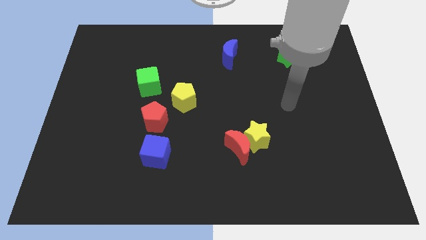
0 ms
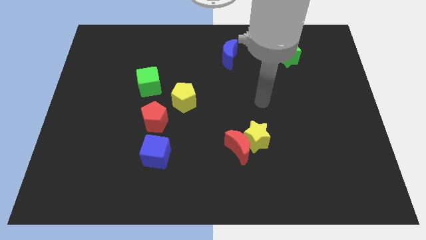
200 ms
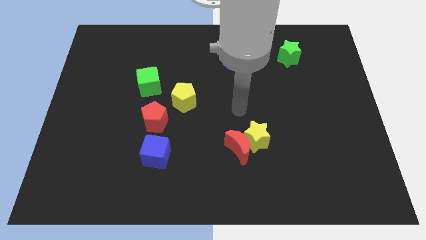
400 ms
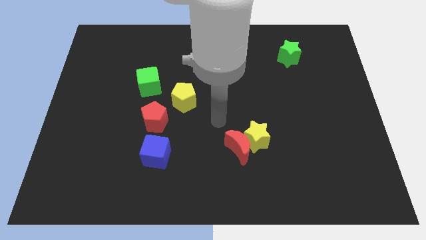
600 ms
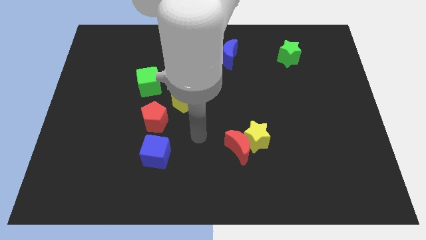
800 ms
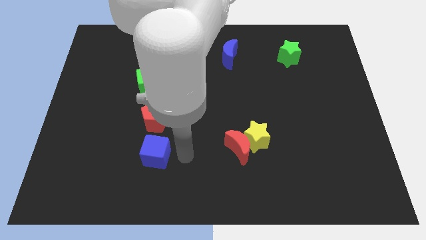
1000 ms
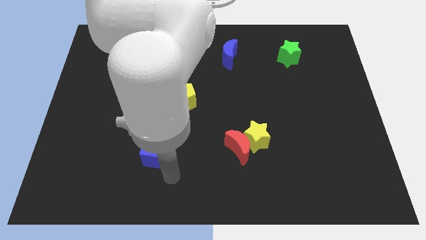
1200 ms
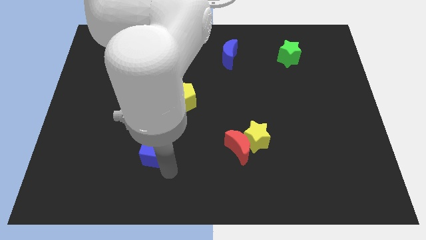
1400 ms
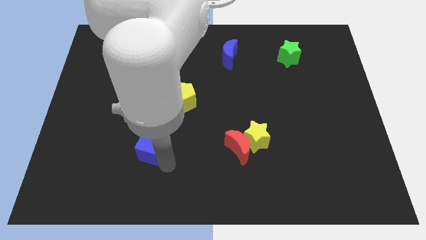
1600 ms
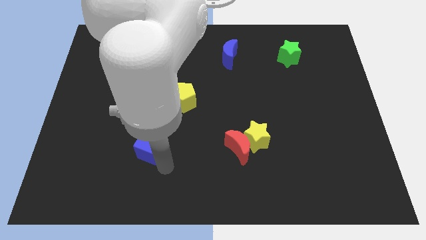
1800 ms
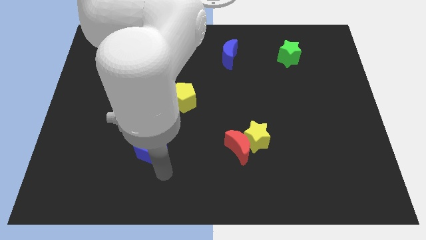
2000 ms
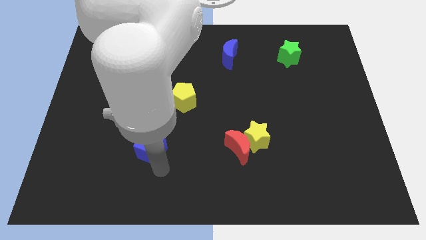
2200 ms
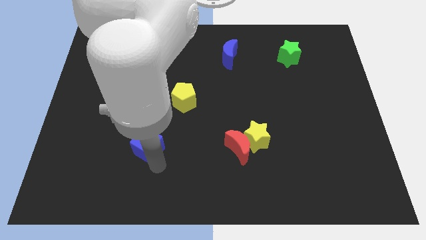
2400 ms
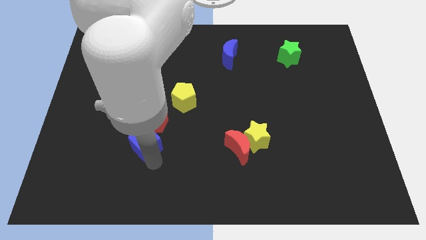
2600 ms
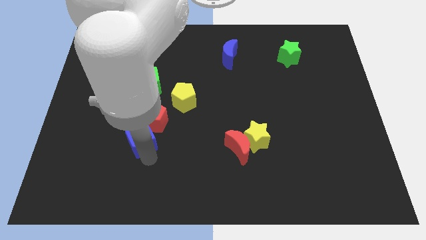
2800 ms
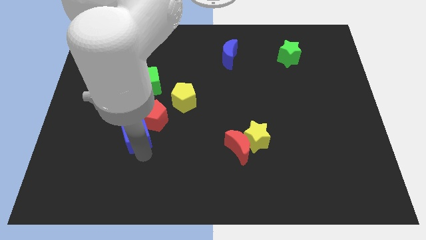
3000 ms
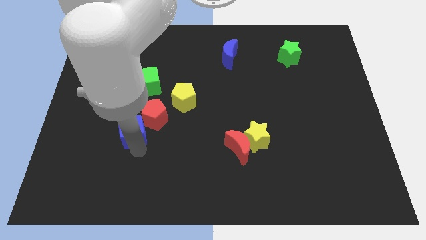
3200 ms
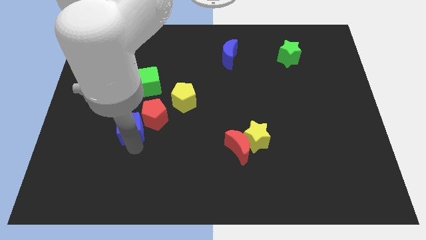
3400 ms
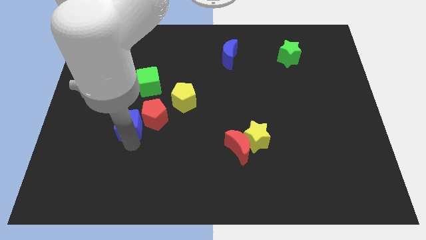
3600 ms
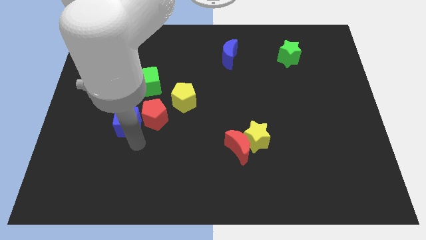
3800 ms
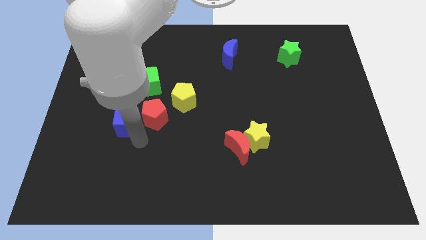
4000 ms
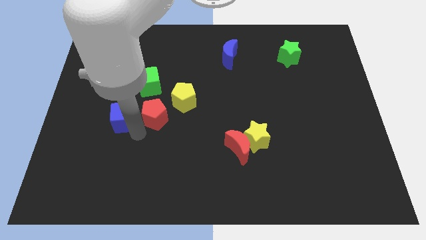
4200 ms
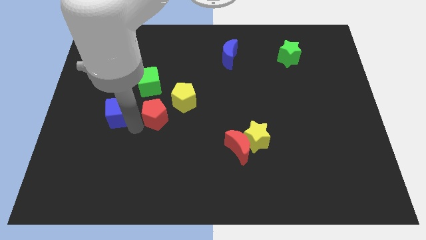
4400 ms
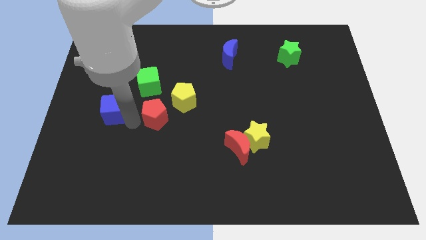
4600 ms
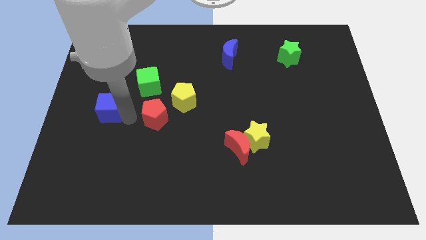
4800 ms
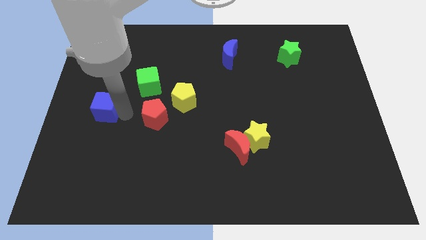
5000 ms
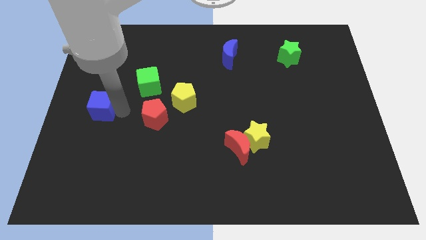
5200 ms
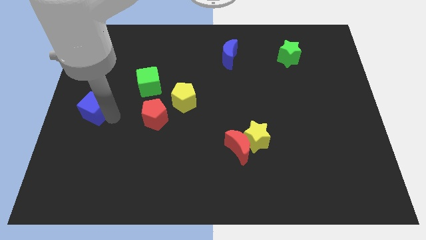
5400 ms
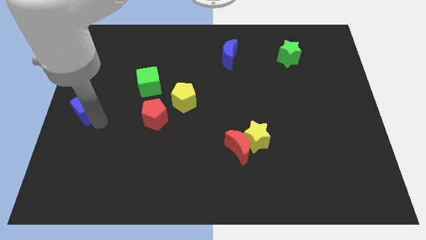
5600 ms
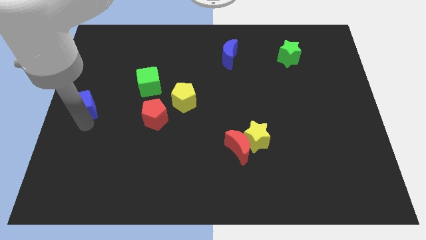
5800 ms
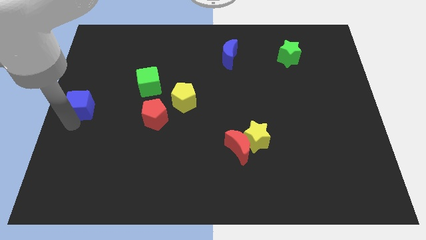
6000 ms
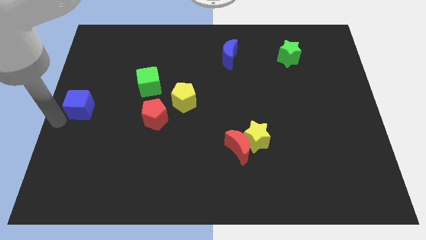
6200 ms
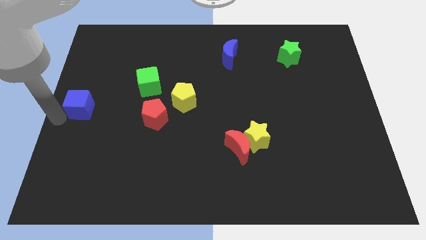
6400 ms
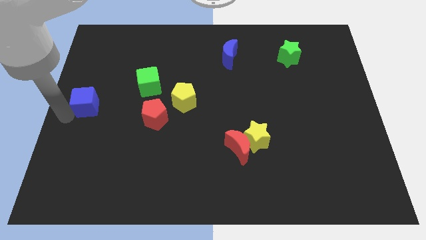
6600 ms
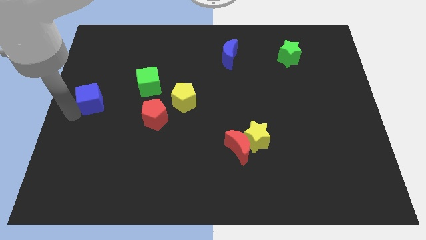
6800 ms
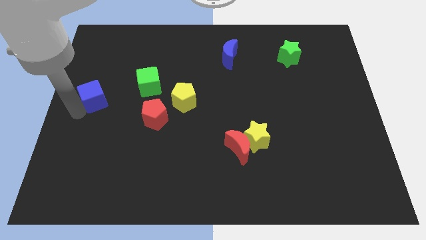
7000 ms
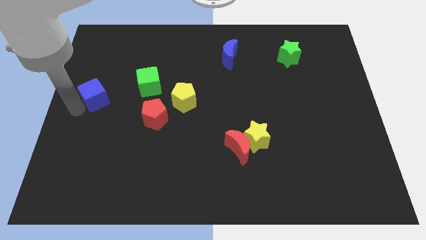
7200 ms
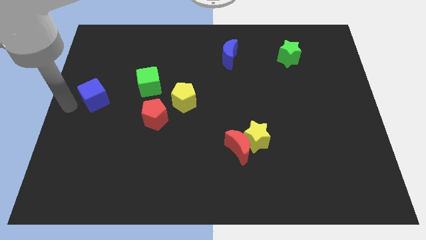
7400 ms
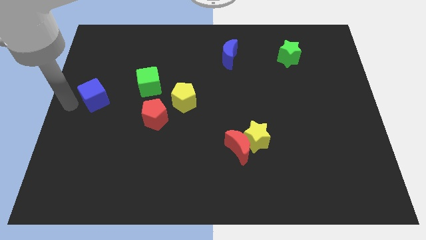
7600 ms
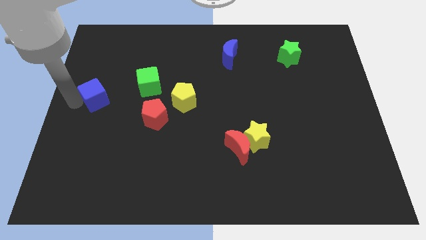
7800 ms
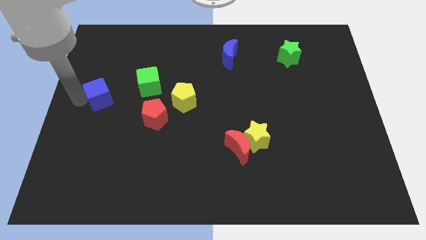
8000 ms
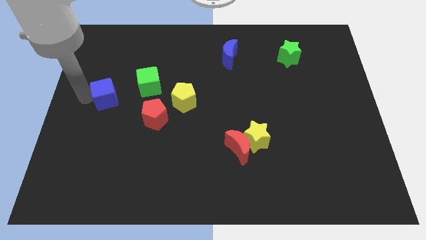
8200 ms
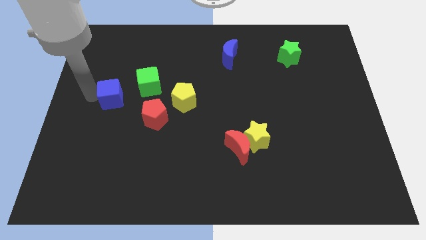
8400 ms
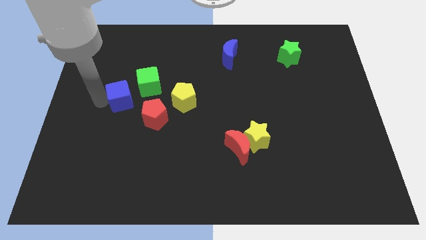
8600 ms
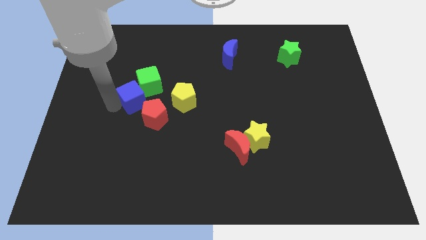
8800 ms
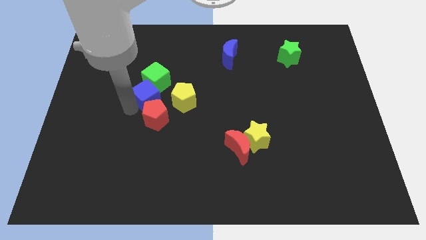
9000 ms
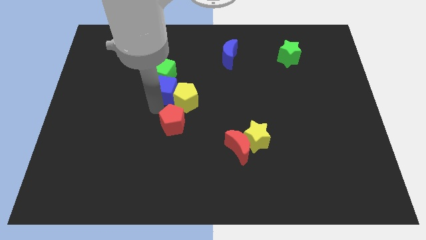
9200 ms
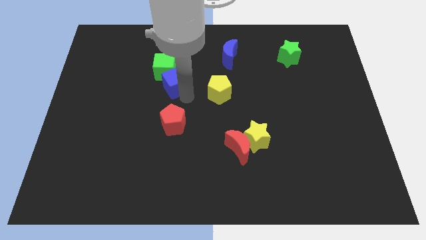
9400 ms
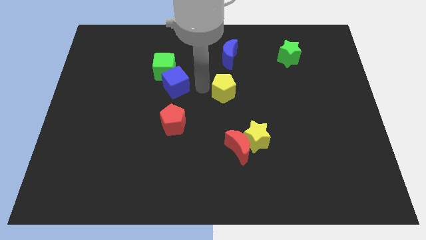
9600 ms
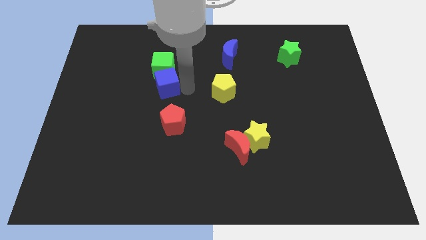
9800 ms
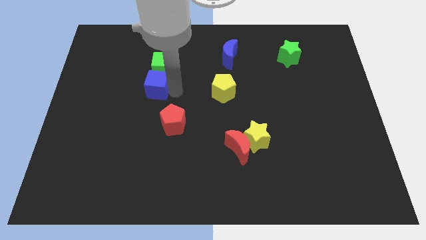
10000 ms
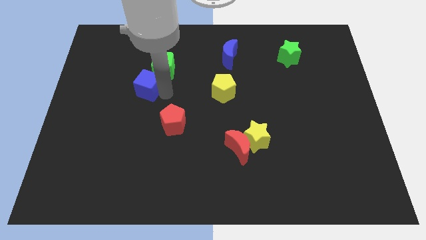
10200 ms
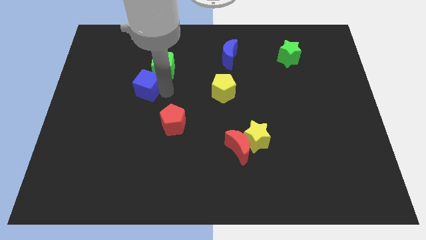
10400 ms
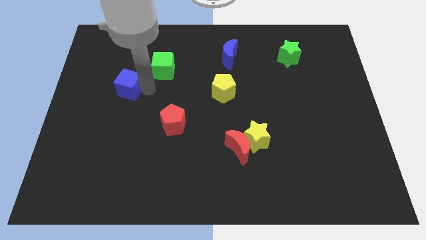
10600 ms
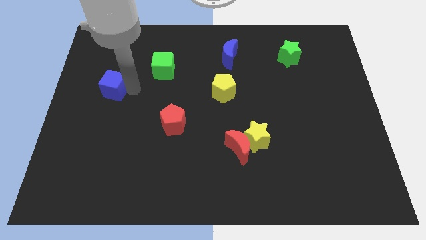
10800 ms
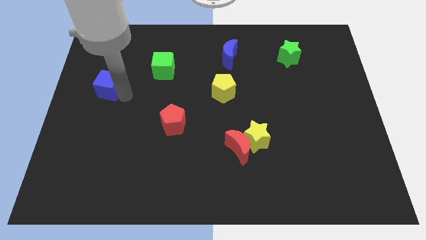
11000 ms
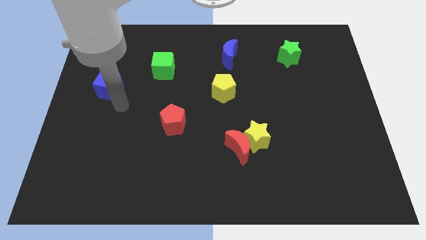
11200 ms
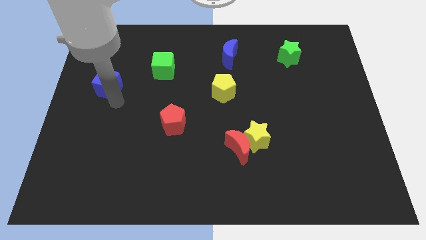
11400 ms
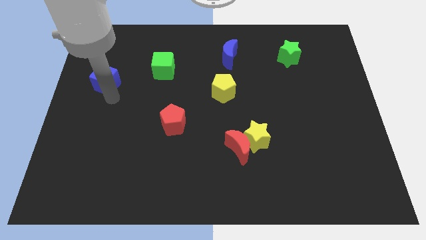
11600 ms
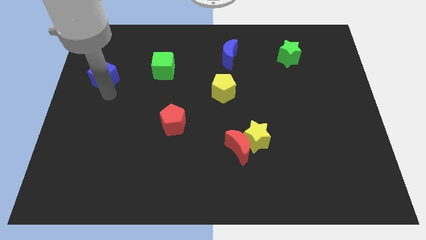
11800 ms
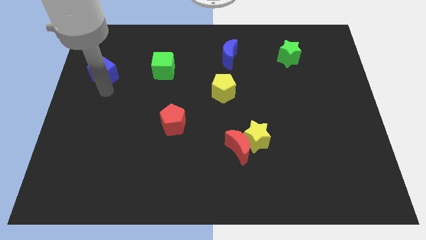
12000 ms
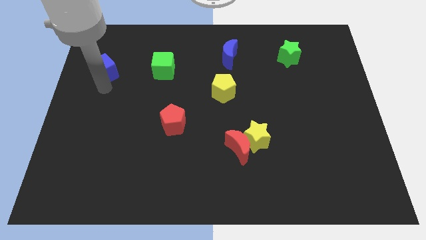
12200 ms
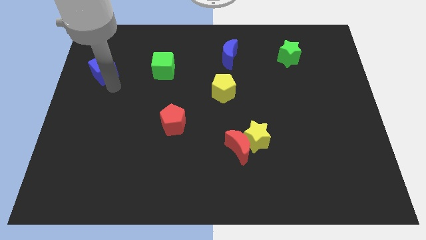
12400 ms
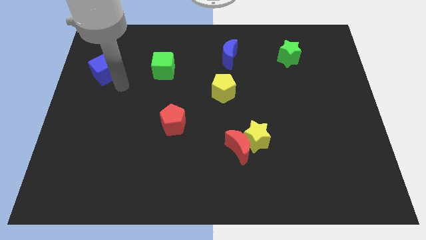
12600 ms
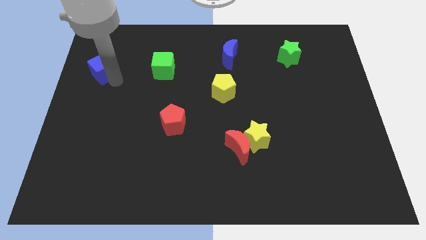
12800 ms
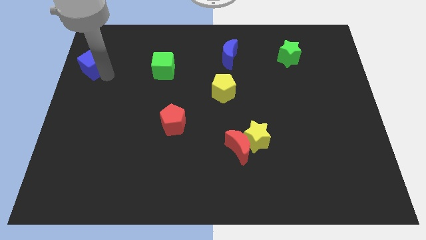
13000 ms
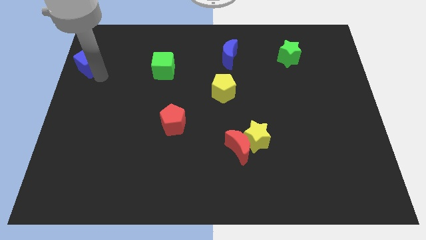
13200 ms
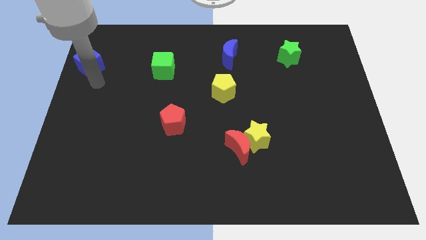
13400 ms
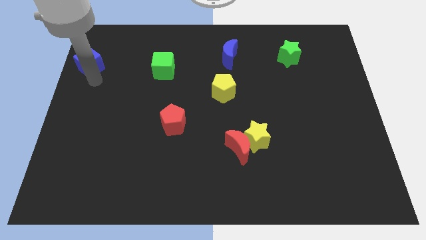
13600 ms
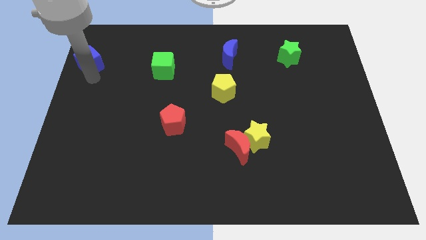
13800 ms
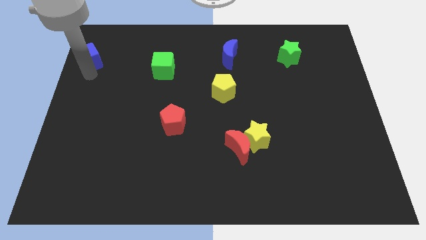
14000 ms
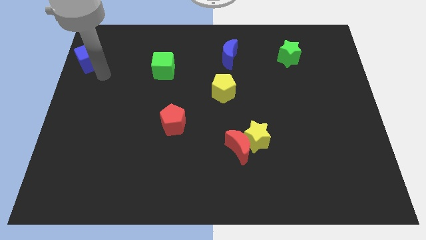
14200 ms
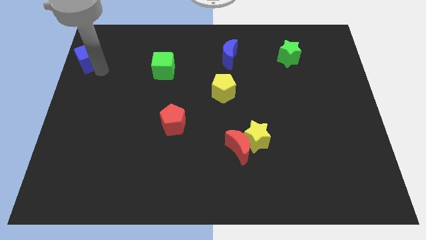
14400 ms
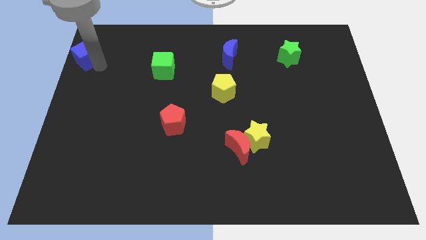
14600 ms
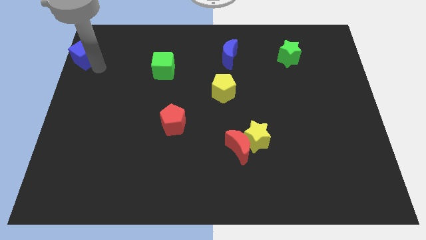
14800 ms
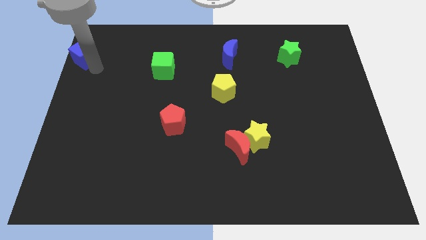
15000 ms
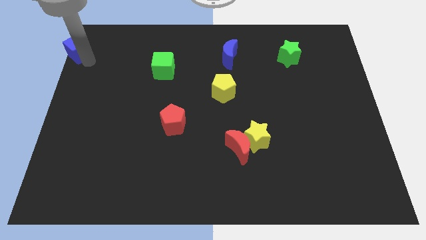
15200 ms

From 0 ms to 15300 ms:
slide the blue cube to the top left corner
